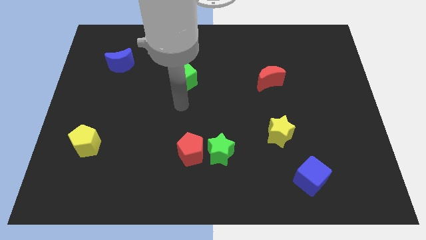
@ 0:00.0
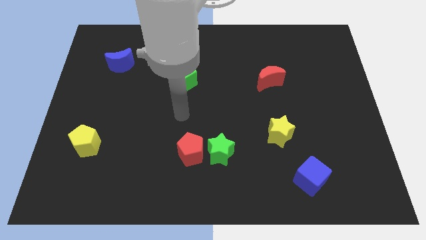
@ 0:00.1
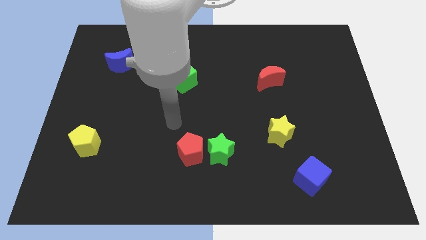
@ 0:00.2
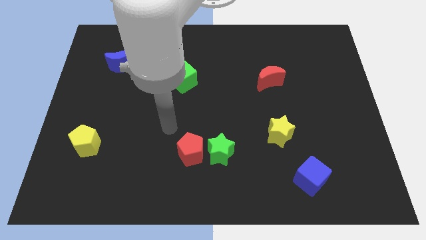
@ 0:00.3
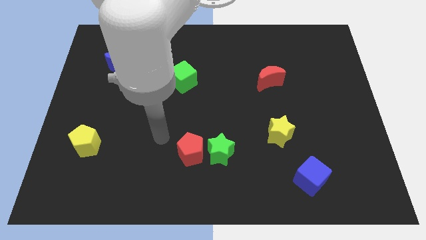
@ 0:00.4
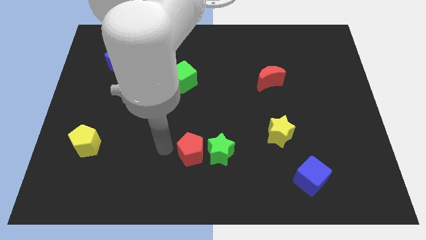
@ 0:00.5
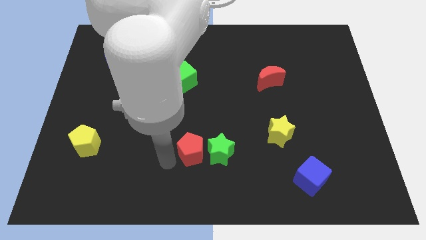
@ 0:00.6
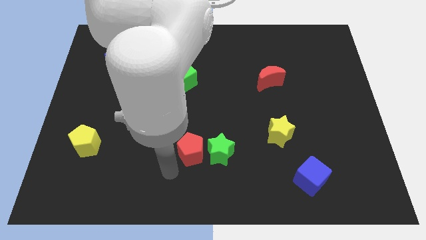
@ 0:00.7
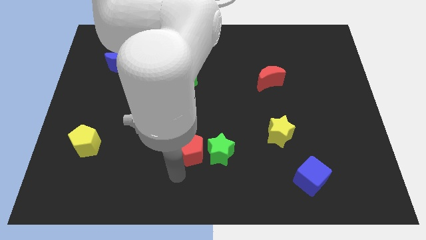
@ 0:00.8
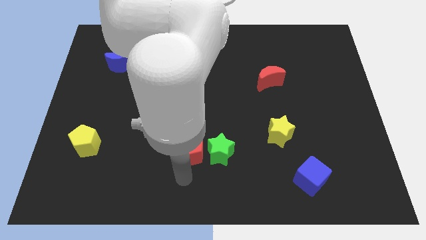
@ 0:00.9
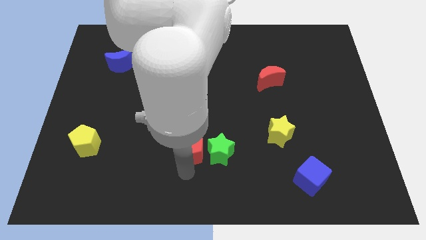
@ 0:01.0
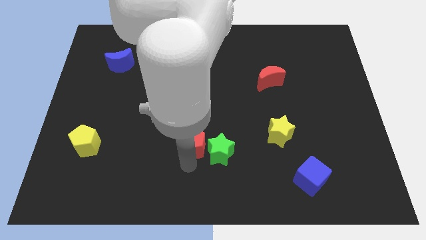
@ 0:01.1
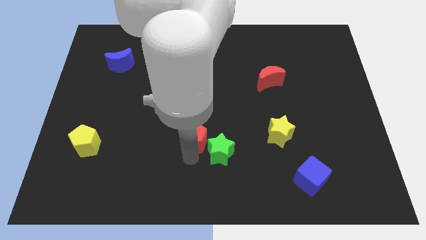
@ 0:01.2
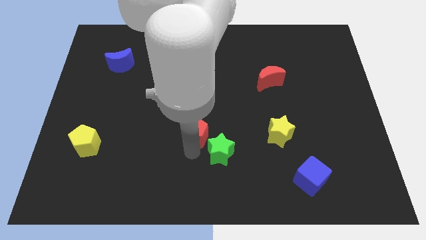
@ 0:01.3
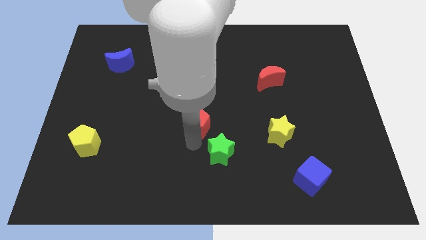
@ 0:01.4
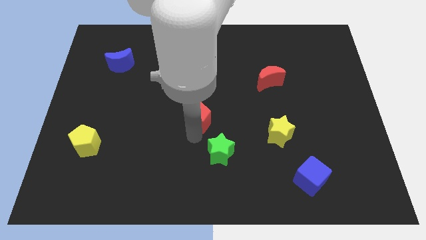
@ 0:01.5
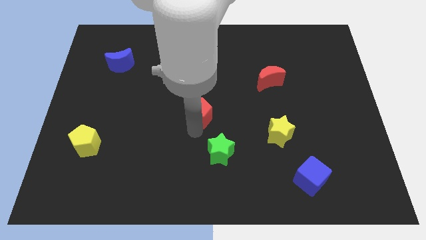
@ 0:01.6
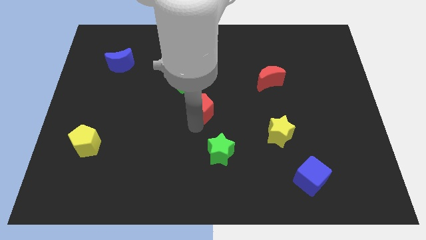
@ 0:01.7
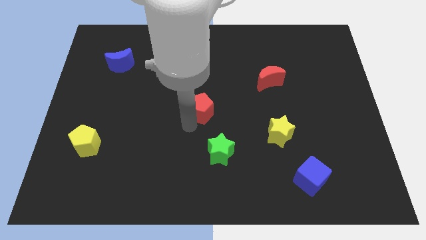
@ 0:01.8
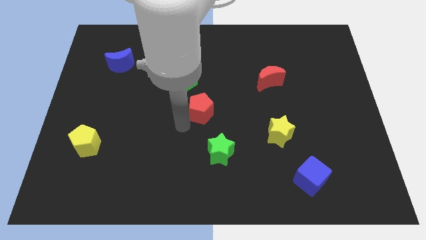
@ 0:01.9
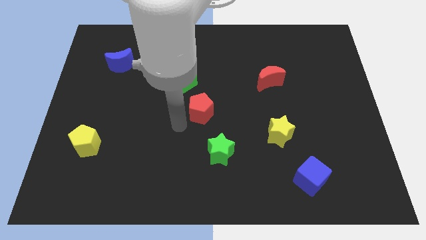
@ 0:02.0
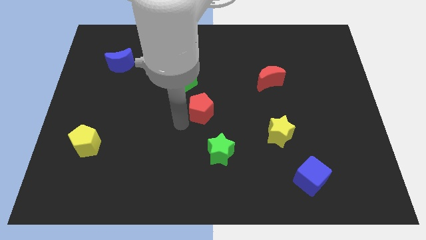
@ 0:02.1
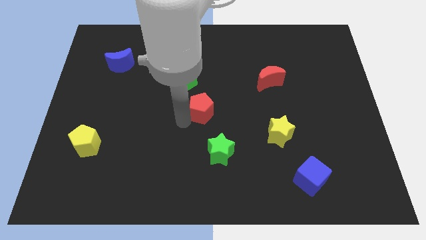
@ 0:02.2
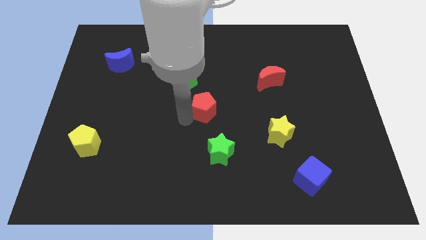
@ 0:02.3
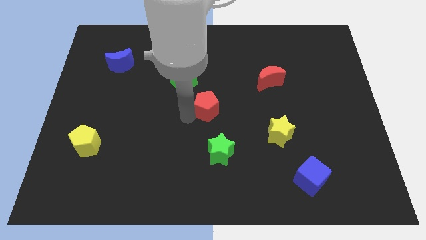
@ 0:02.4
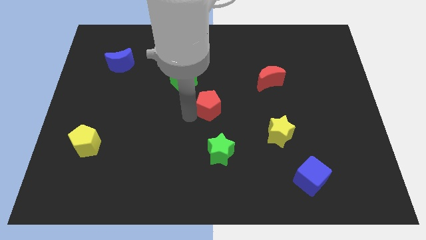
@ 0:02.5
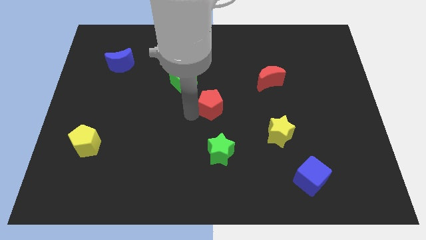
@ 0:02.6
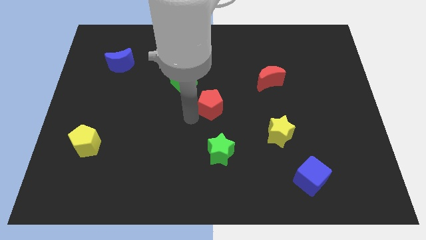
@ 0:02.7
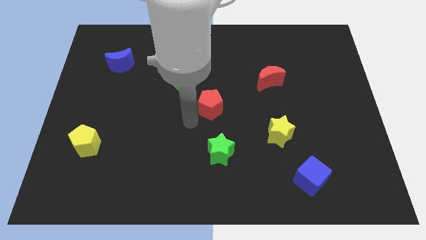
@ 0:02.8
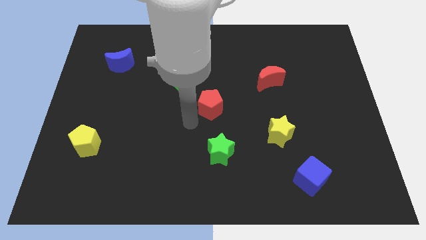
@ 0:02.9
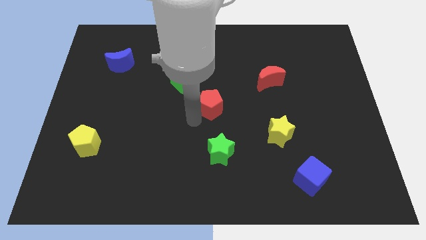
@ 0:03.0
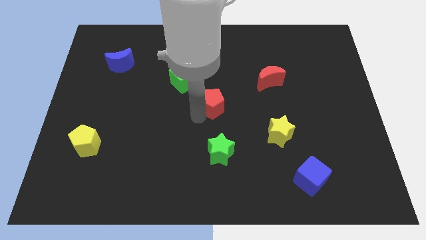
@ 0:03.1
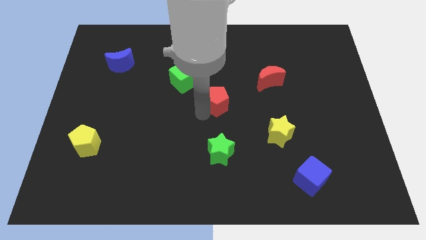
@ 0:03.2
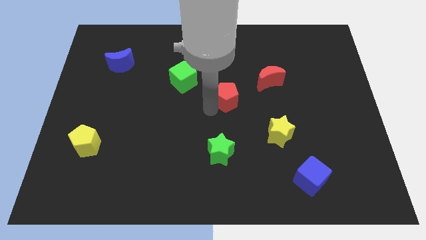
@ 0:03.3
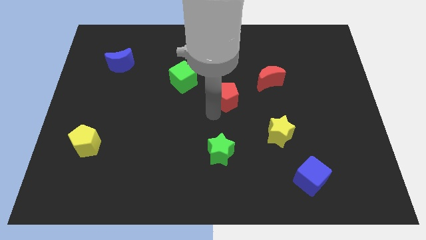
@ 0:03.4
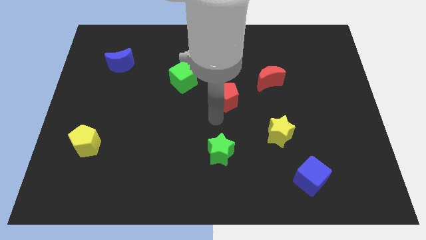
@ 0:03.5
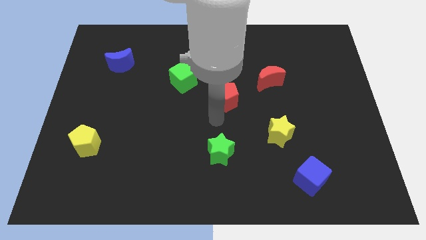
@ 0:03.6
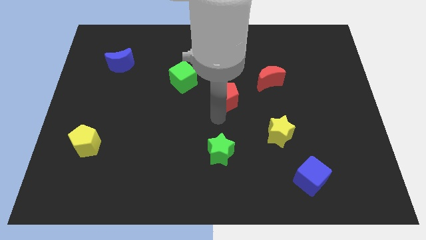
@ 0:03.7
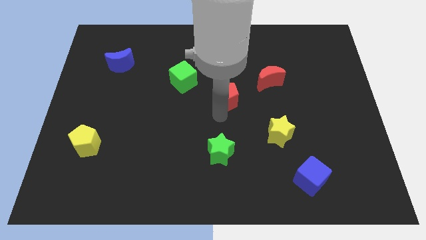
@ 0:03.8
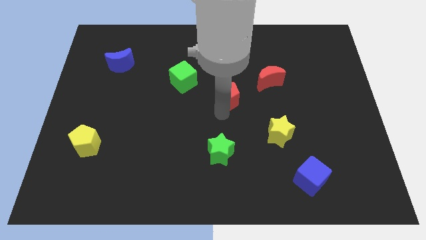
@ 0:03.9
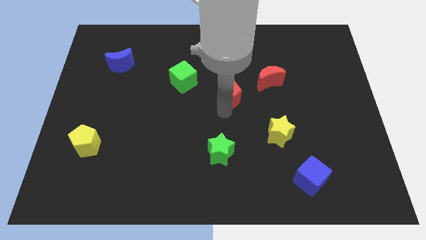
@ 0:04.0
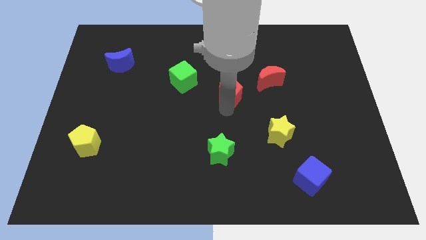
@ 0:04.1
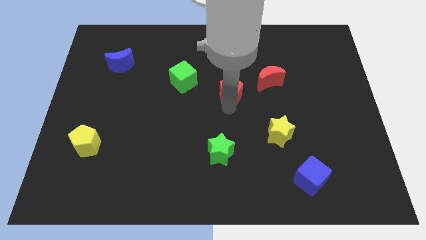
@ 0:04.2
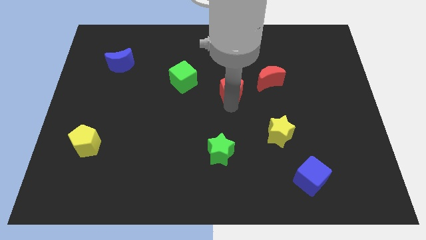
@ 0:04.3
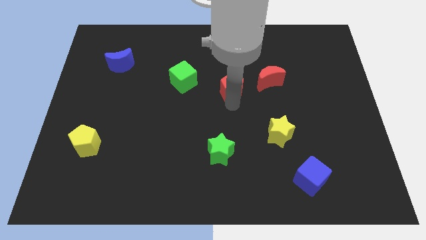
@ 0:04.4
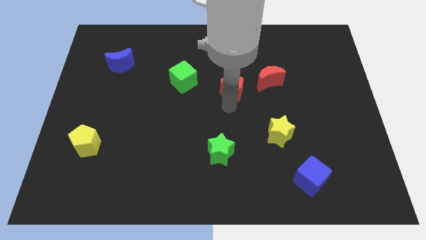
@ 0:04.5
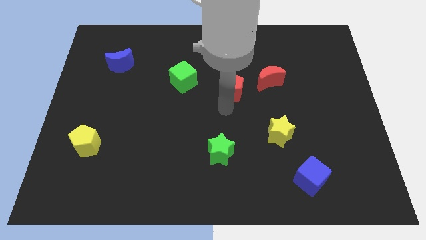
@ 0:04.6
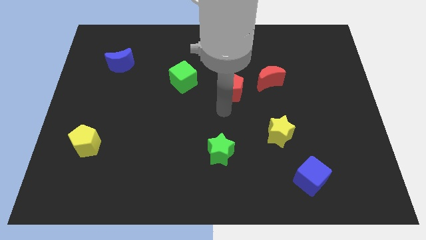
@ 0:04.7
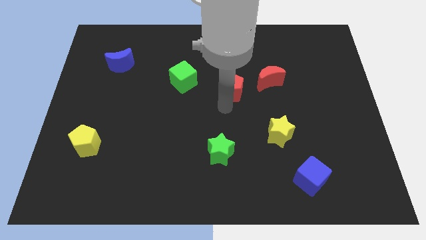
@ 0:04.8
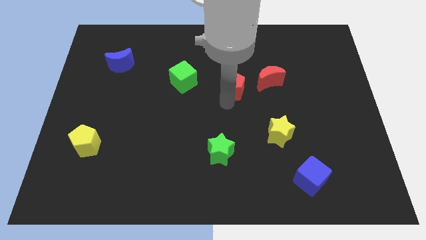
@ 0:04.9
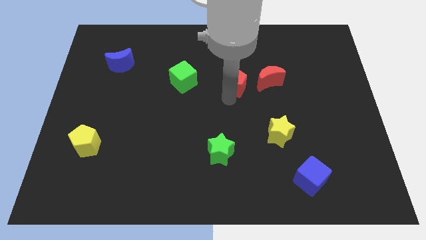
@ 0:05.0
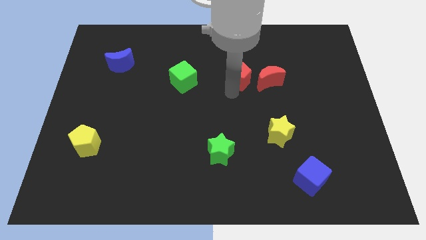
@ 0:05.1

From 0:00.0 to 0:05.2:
move the red pentagon to the top left side of the red moon

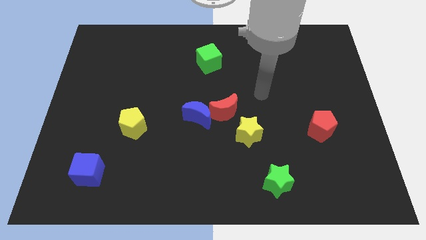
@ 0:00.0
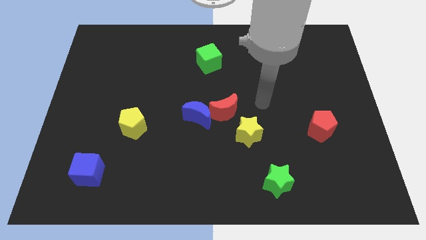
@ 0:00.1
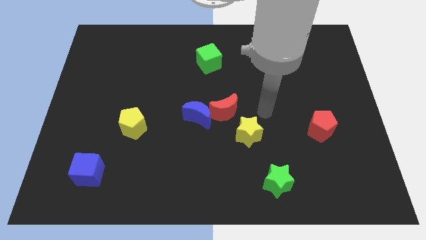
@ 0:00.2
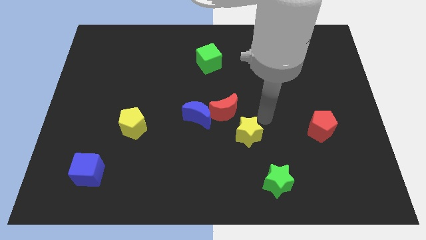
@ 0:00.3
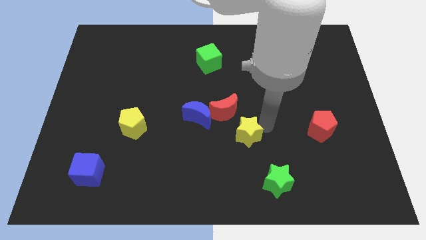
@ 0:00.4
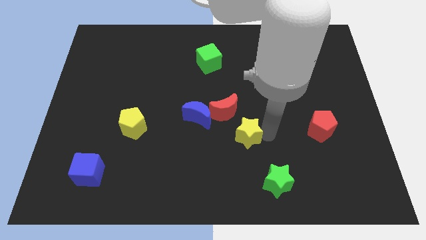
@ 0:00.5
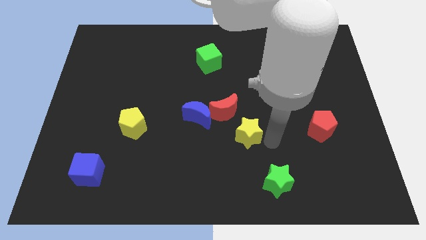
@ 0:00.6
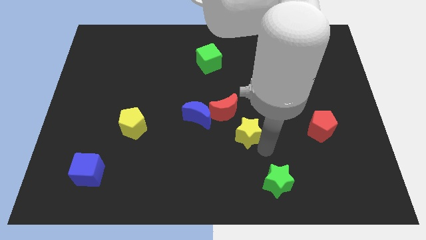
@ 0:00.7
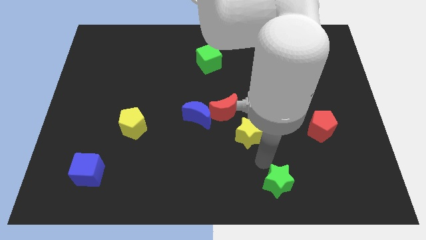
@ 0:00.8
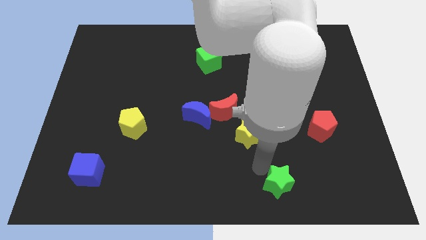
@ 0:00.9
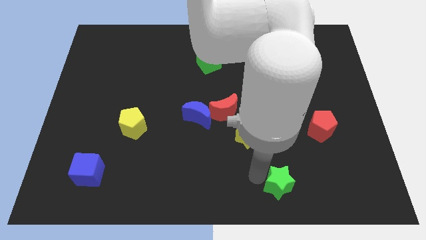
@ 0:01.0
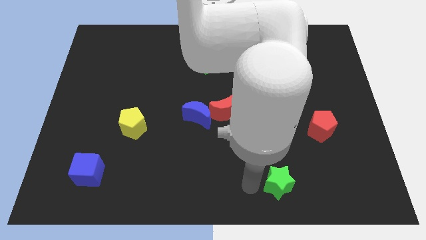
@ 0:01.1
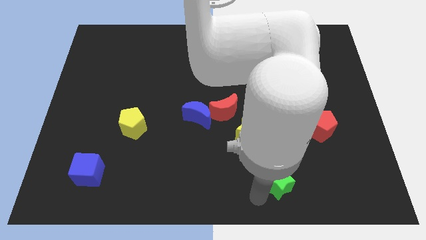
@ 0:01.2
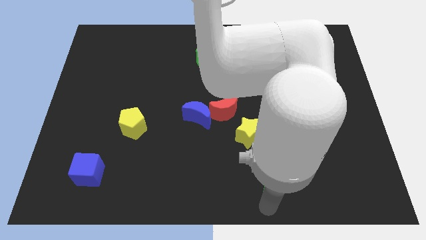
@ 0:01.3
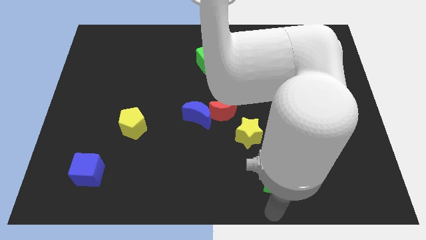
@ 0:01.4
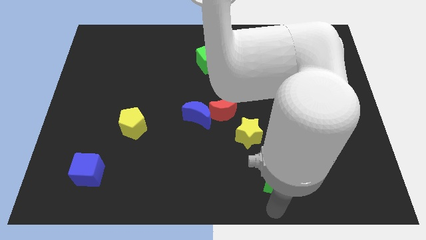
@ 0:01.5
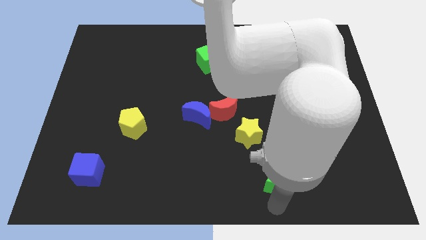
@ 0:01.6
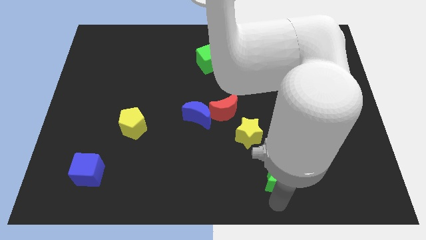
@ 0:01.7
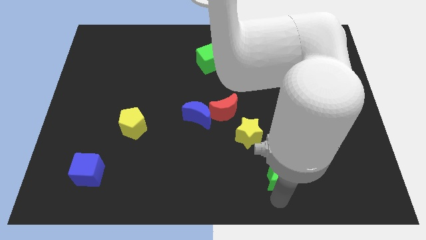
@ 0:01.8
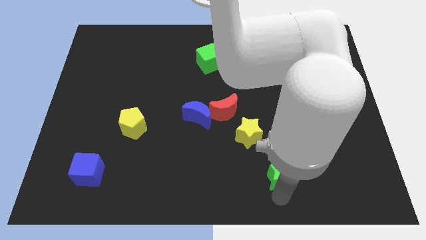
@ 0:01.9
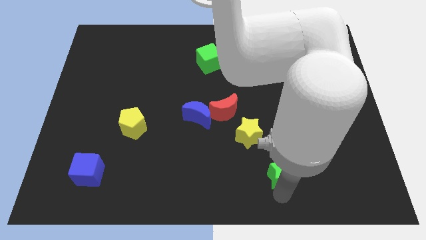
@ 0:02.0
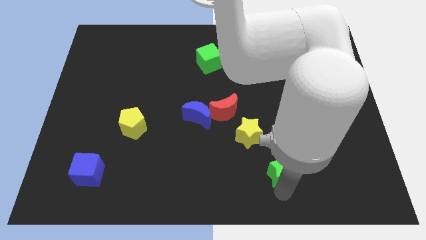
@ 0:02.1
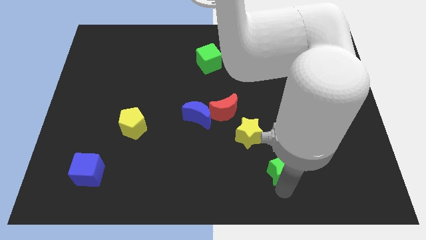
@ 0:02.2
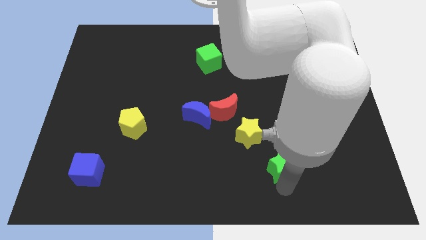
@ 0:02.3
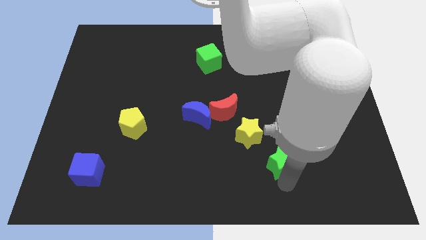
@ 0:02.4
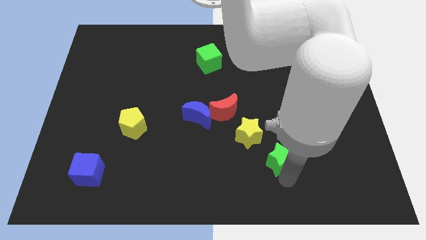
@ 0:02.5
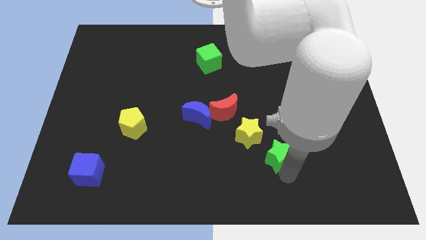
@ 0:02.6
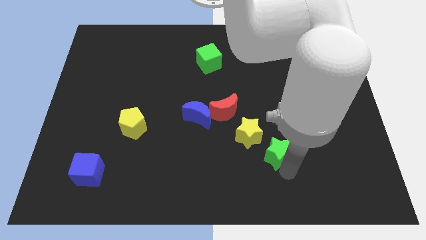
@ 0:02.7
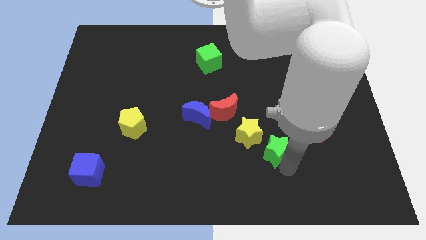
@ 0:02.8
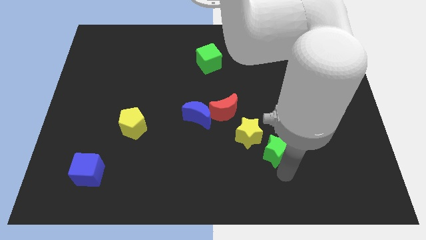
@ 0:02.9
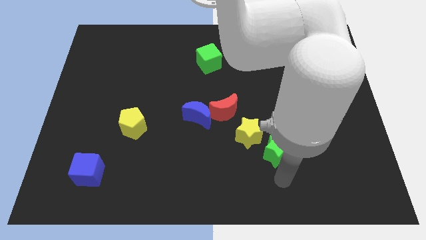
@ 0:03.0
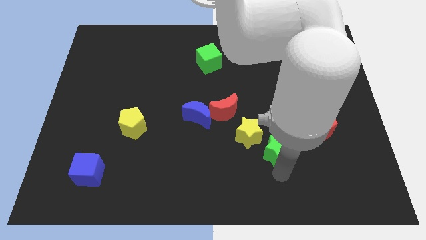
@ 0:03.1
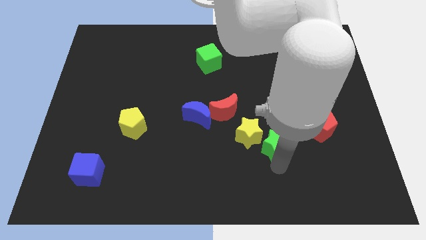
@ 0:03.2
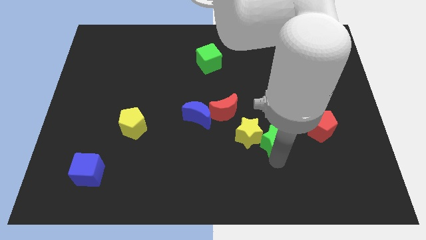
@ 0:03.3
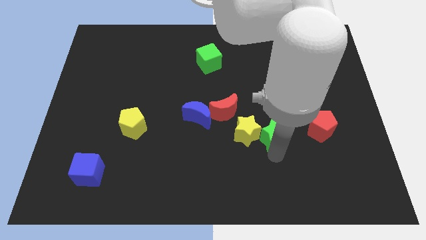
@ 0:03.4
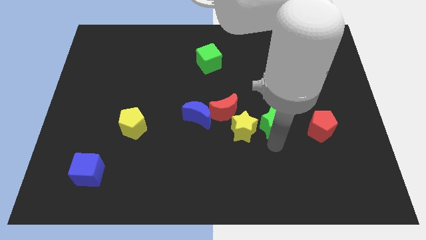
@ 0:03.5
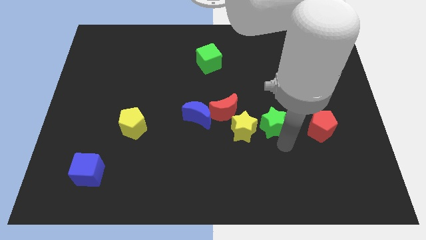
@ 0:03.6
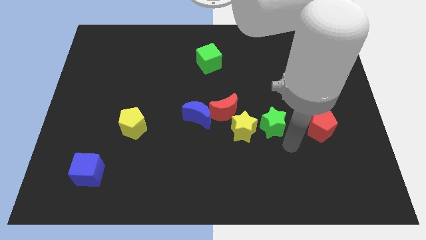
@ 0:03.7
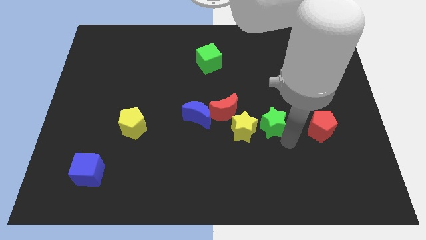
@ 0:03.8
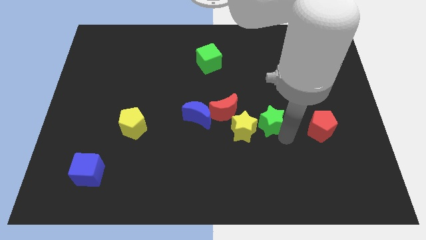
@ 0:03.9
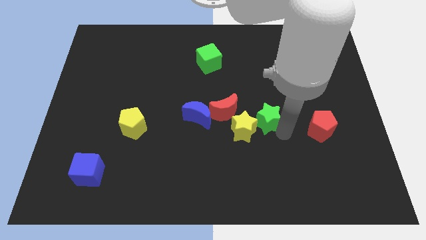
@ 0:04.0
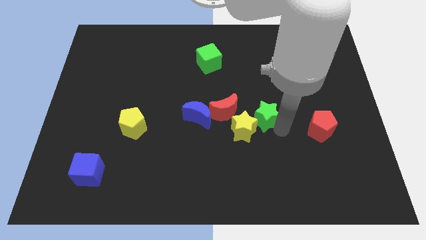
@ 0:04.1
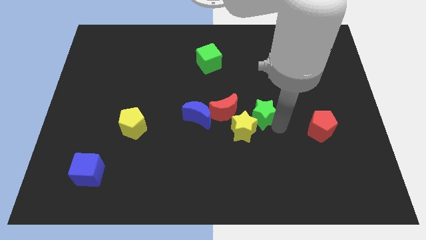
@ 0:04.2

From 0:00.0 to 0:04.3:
put the green star to the top of the yellow star
